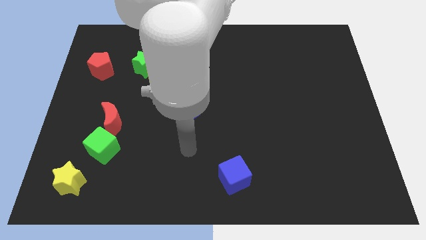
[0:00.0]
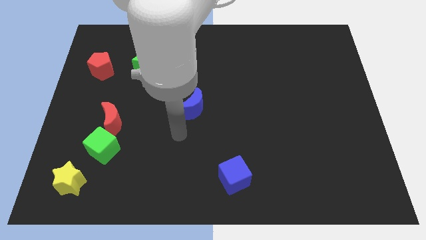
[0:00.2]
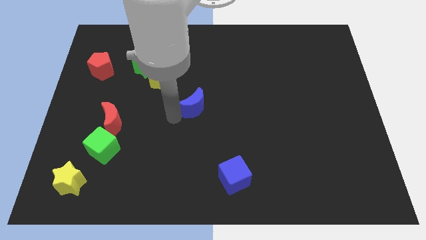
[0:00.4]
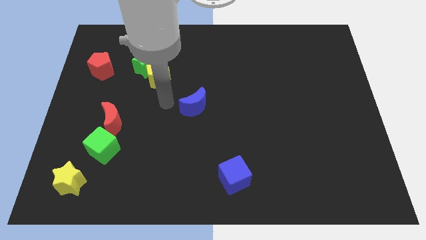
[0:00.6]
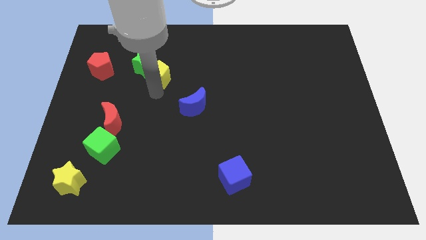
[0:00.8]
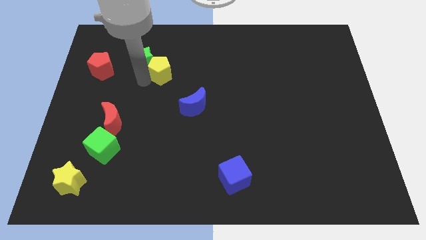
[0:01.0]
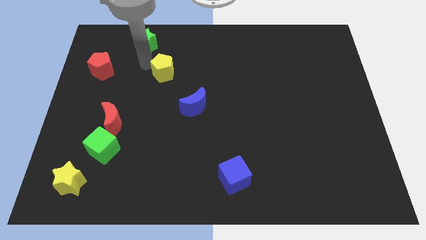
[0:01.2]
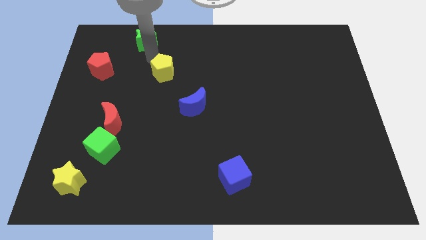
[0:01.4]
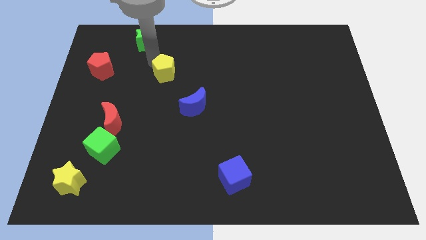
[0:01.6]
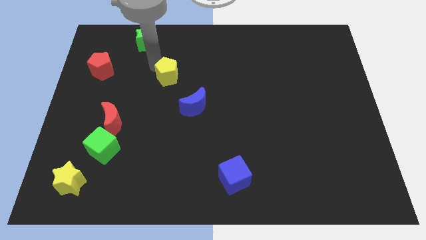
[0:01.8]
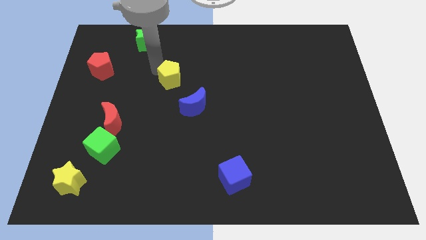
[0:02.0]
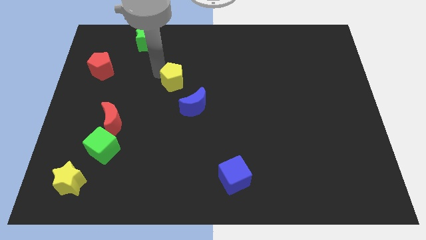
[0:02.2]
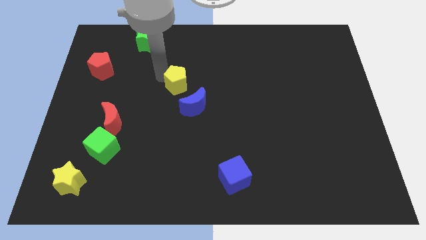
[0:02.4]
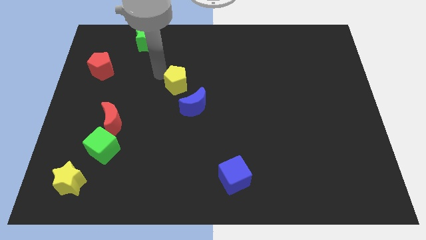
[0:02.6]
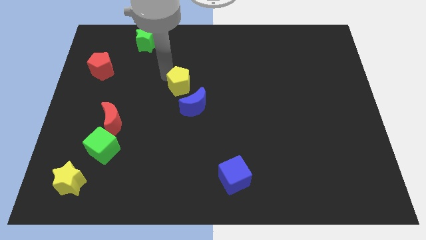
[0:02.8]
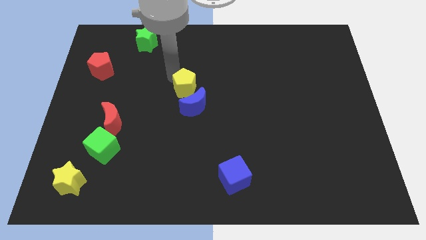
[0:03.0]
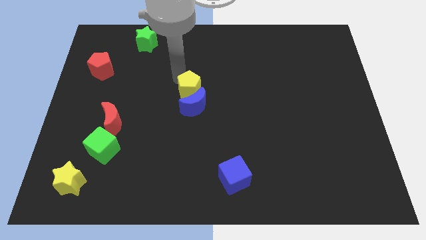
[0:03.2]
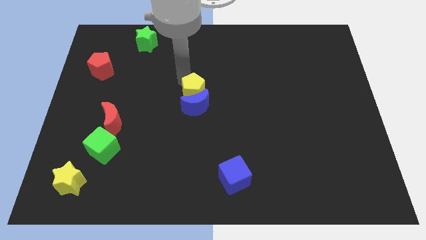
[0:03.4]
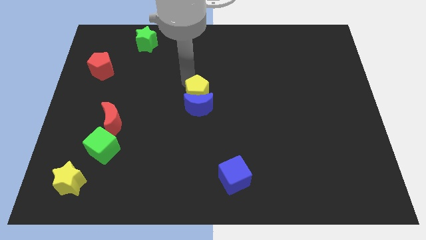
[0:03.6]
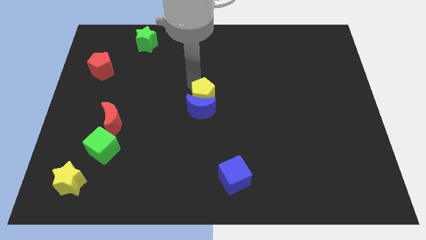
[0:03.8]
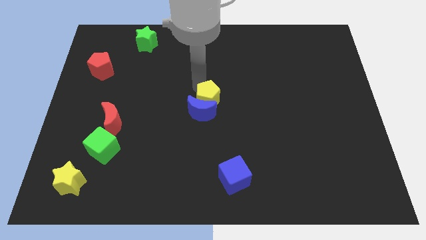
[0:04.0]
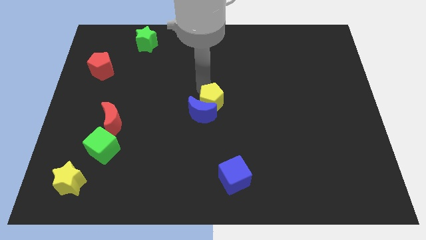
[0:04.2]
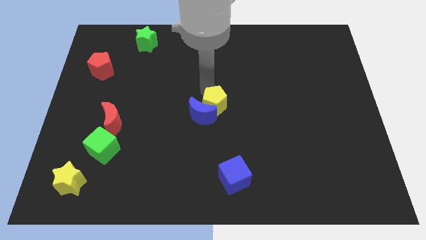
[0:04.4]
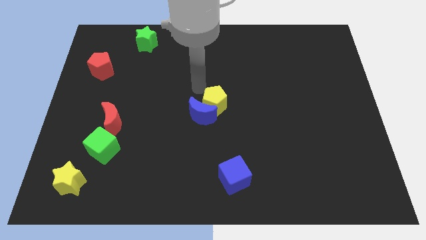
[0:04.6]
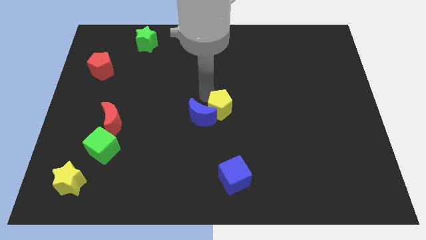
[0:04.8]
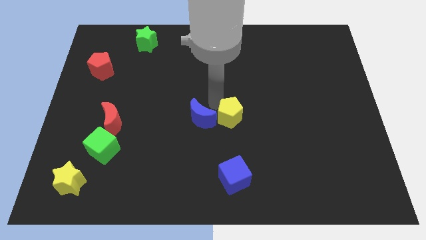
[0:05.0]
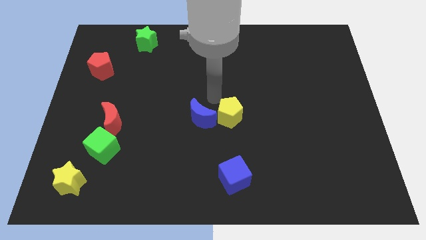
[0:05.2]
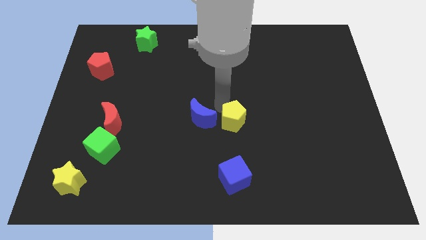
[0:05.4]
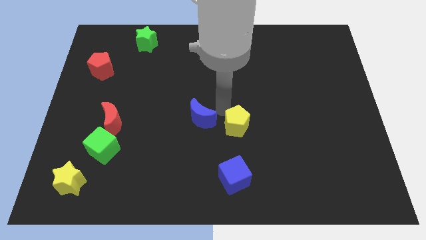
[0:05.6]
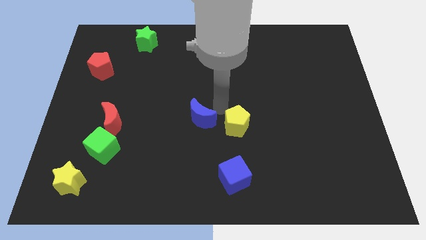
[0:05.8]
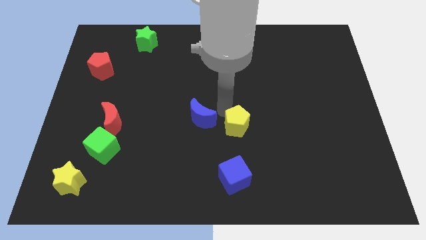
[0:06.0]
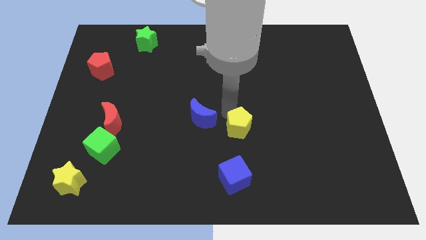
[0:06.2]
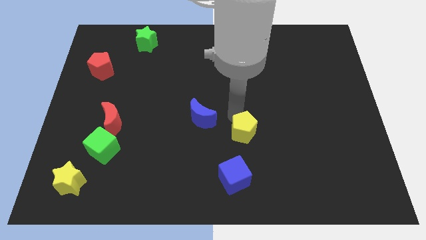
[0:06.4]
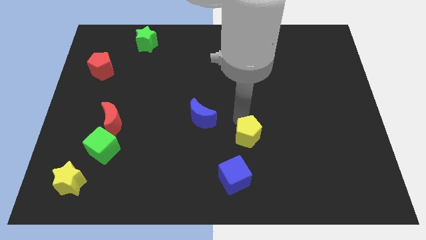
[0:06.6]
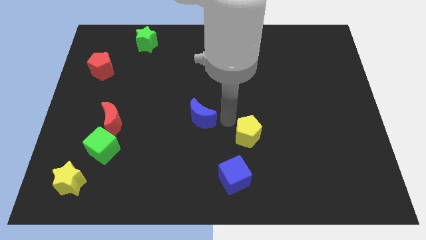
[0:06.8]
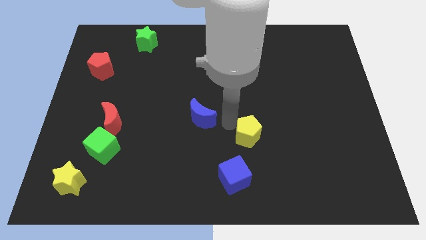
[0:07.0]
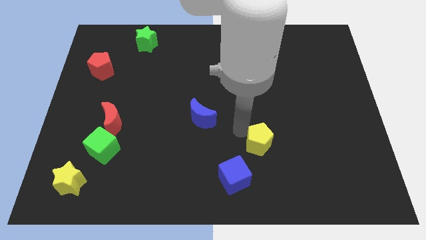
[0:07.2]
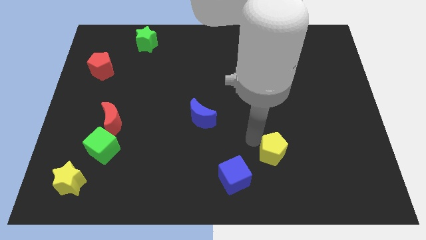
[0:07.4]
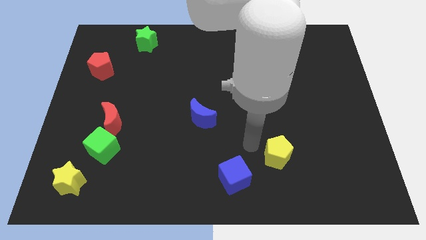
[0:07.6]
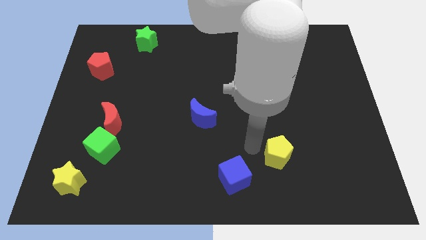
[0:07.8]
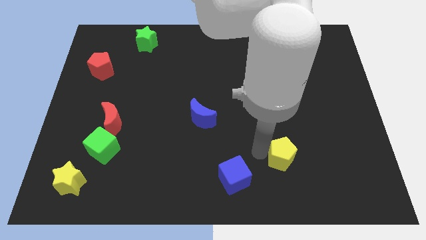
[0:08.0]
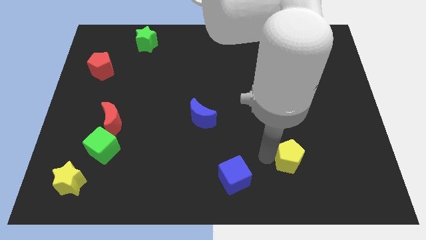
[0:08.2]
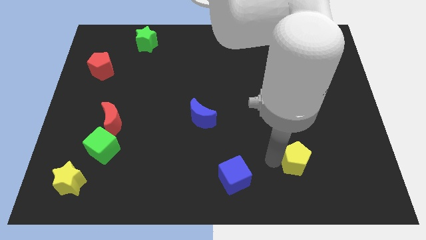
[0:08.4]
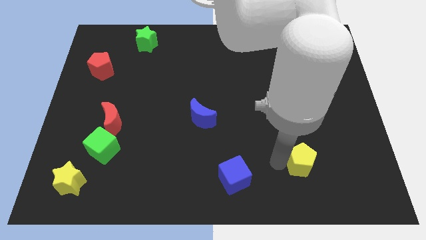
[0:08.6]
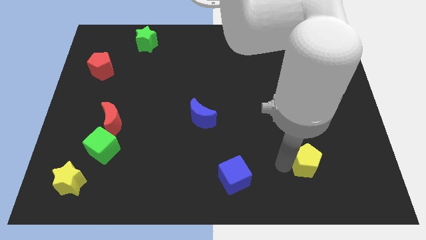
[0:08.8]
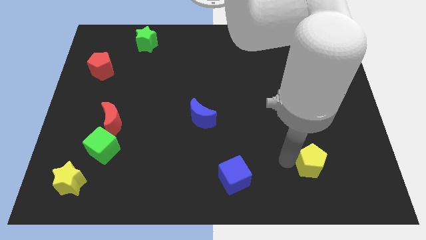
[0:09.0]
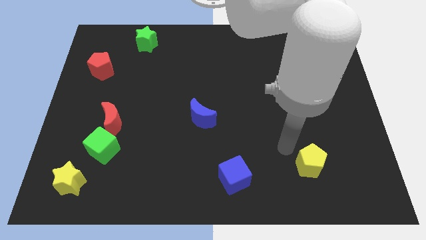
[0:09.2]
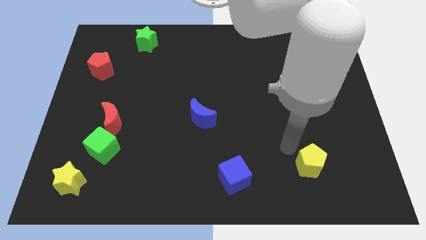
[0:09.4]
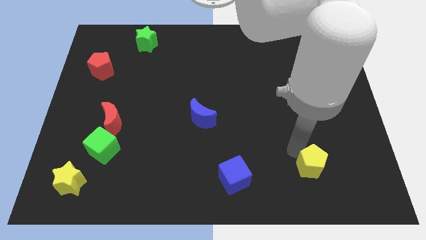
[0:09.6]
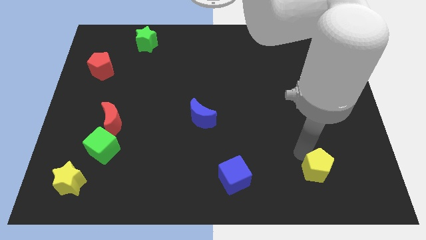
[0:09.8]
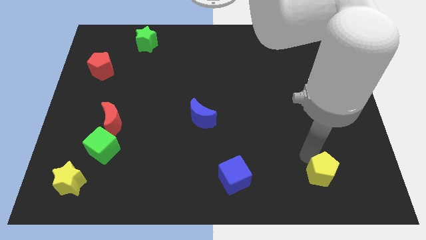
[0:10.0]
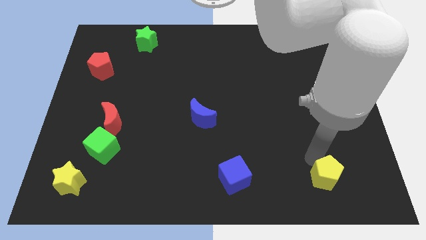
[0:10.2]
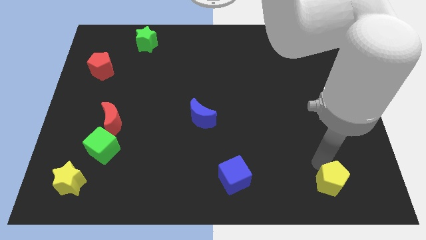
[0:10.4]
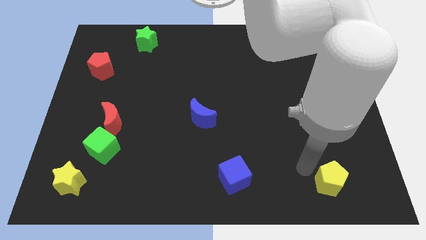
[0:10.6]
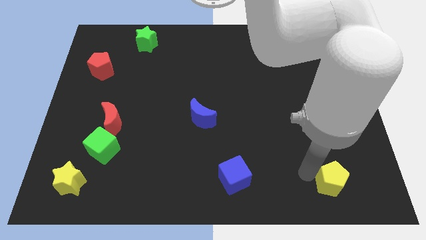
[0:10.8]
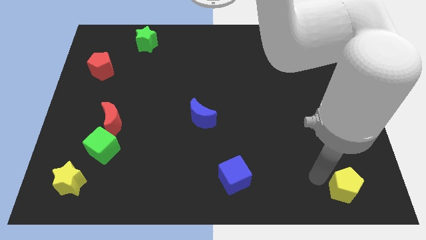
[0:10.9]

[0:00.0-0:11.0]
push the yellow pentagon to the bottom right

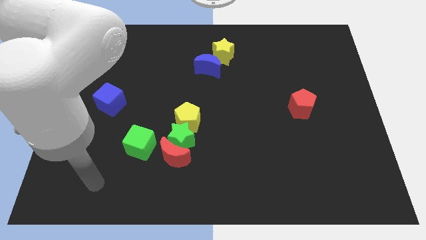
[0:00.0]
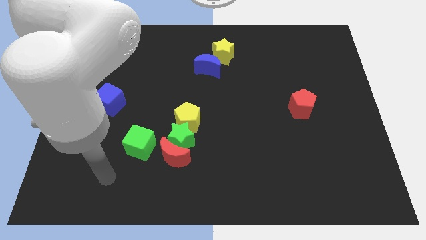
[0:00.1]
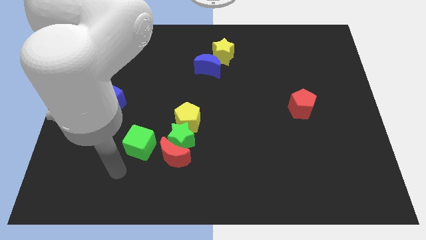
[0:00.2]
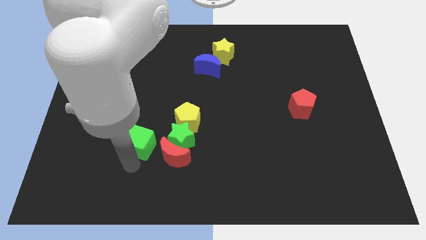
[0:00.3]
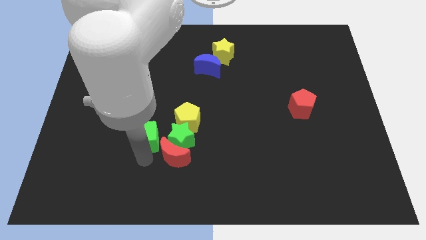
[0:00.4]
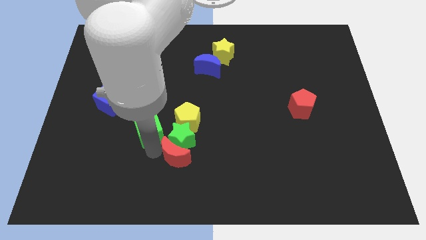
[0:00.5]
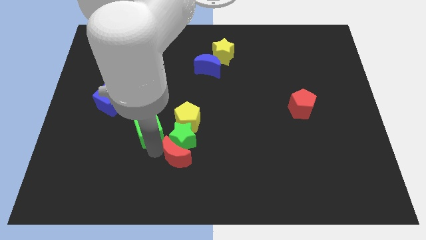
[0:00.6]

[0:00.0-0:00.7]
put the green star to the center
